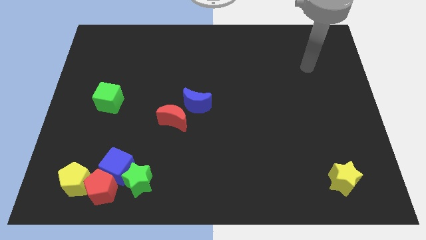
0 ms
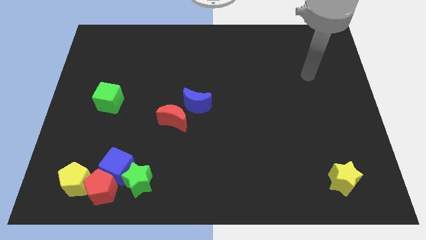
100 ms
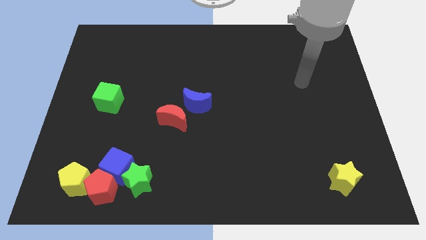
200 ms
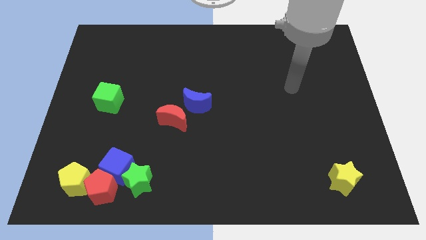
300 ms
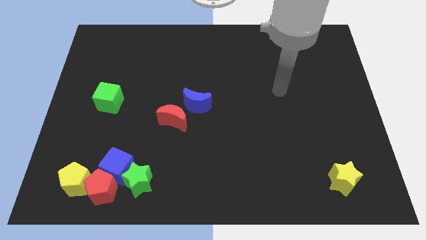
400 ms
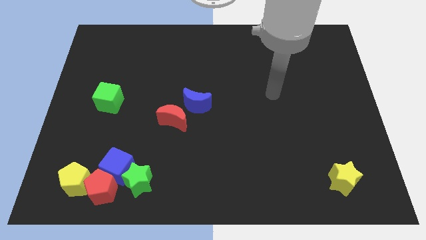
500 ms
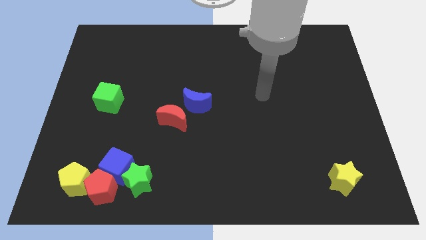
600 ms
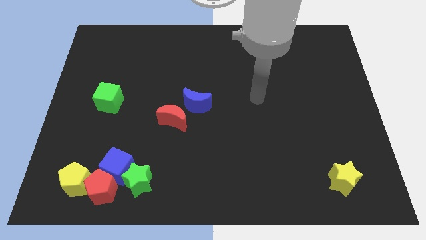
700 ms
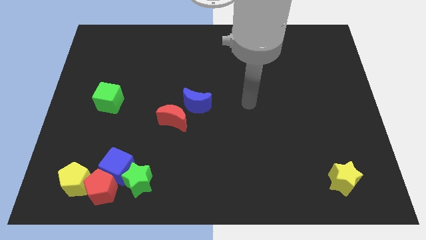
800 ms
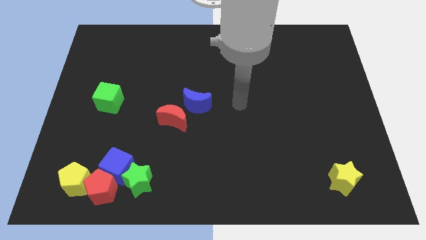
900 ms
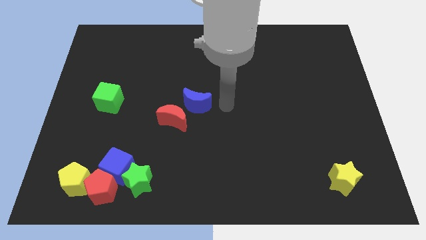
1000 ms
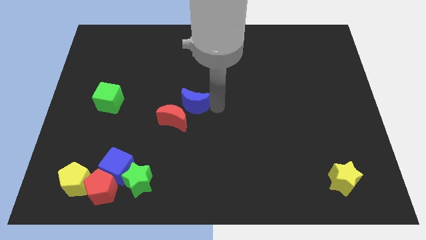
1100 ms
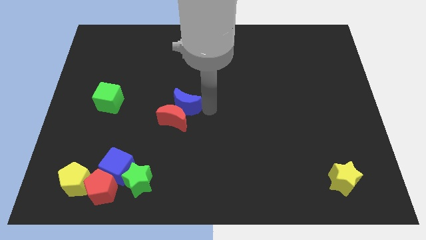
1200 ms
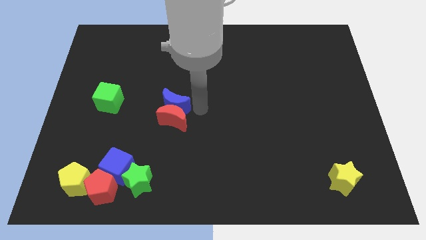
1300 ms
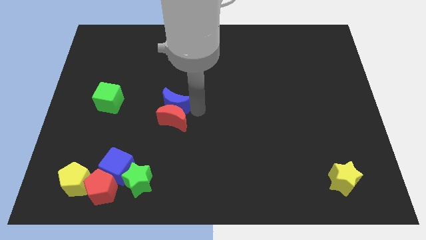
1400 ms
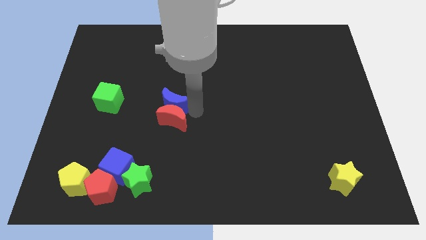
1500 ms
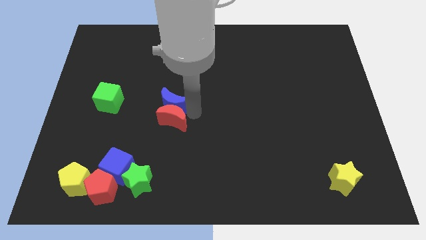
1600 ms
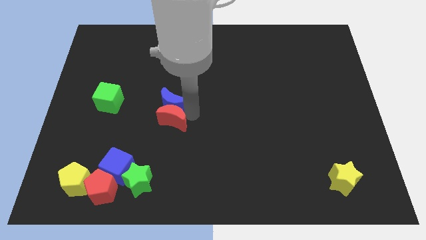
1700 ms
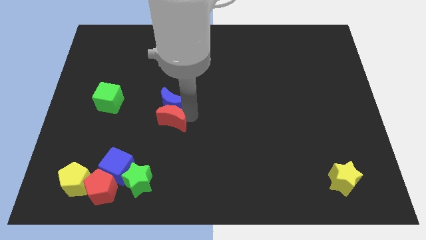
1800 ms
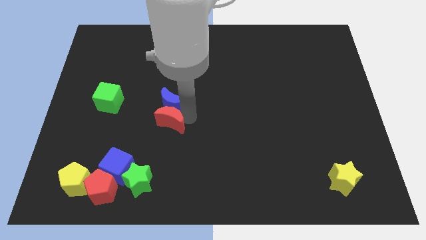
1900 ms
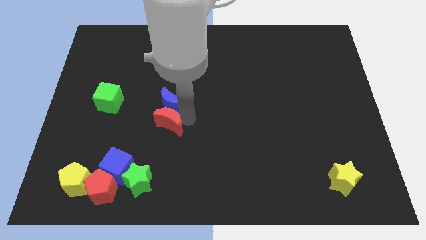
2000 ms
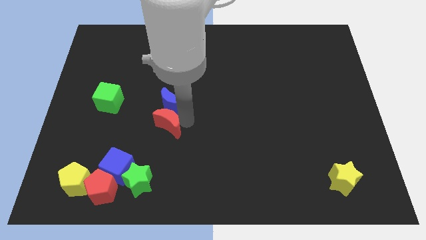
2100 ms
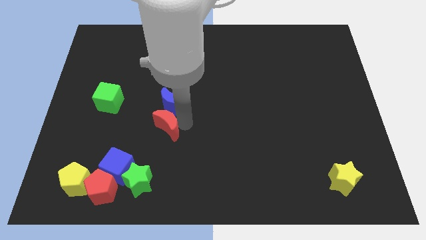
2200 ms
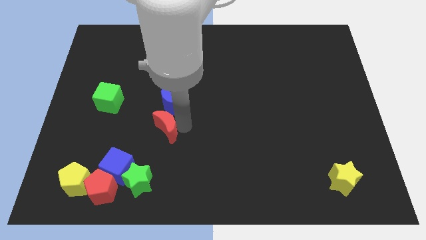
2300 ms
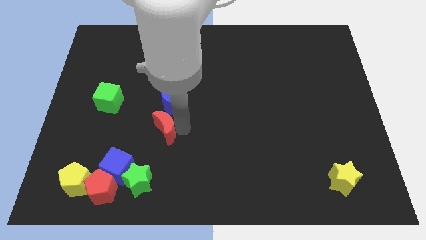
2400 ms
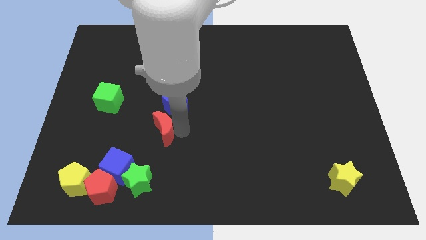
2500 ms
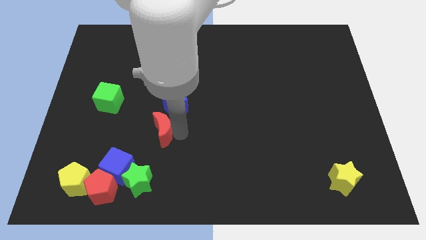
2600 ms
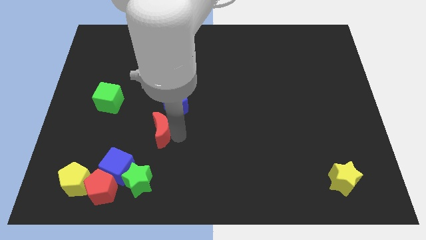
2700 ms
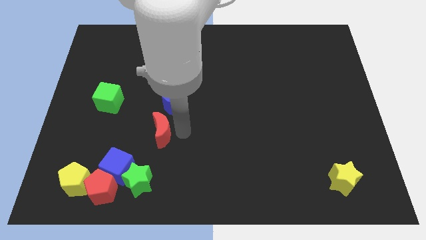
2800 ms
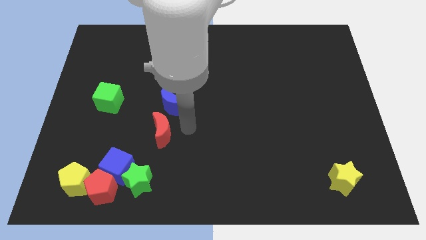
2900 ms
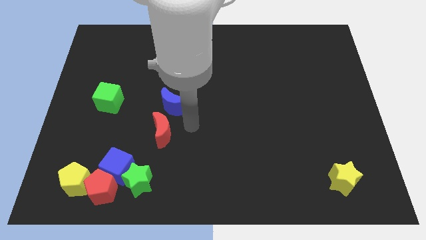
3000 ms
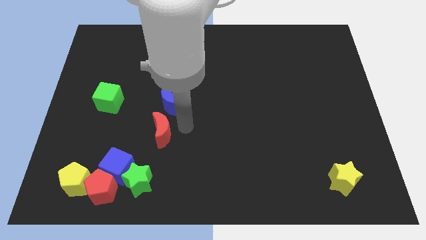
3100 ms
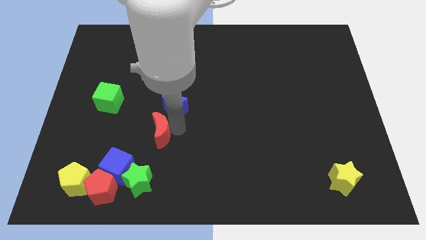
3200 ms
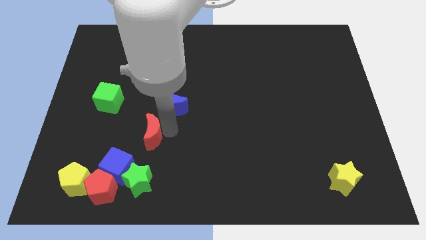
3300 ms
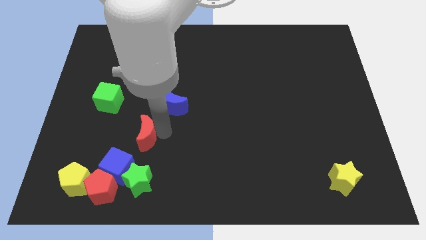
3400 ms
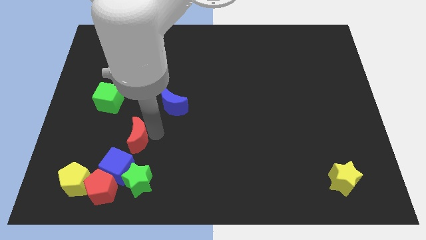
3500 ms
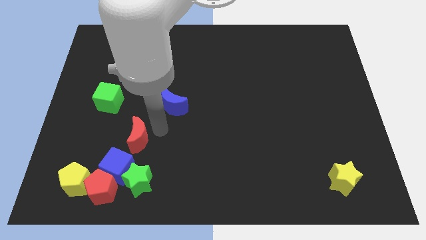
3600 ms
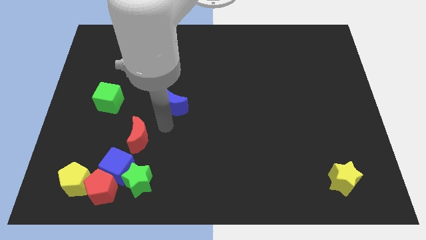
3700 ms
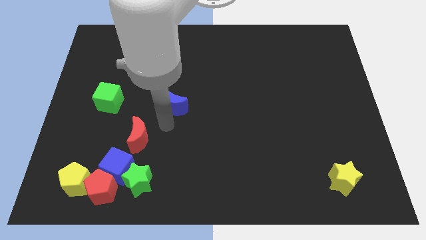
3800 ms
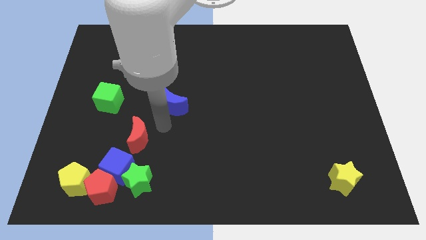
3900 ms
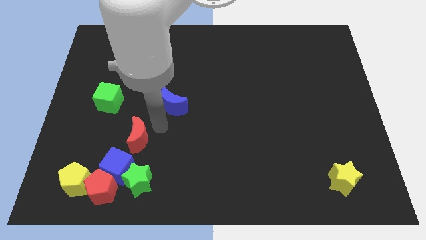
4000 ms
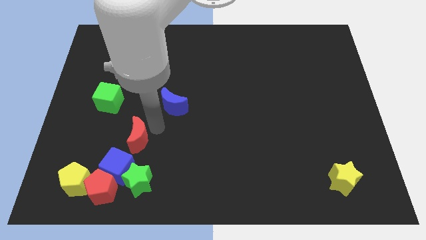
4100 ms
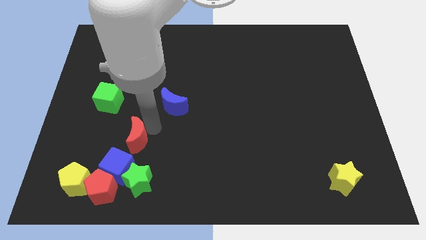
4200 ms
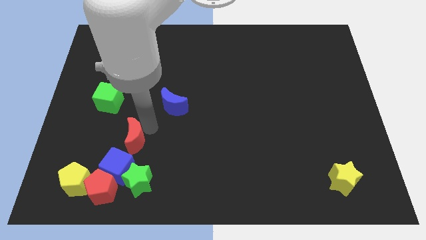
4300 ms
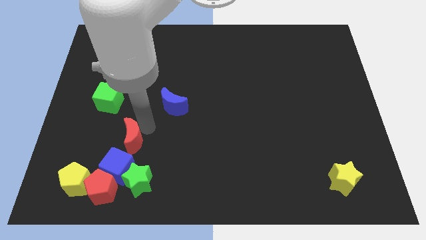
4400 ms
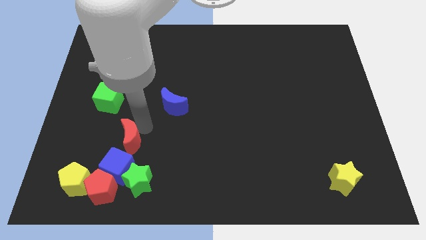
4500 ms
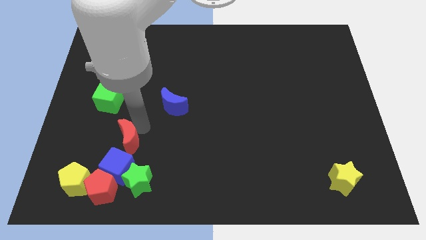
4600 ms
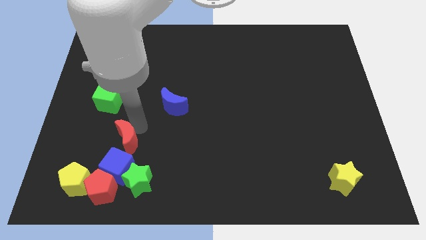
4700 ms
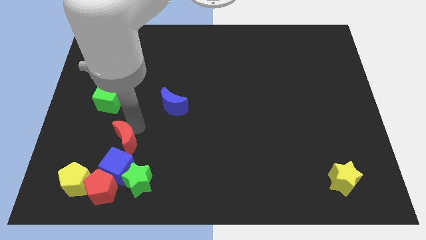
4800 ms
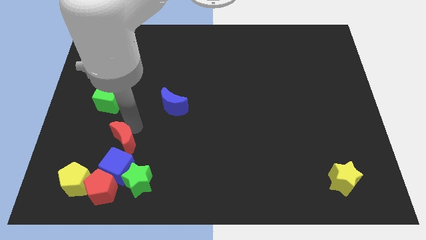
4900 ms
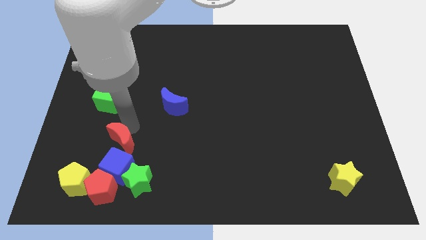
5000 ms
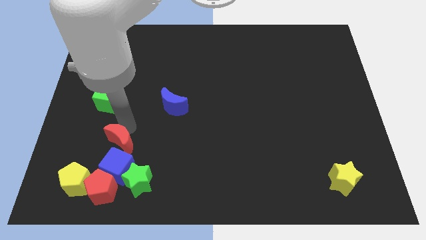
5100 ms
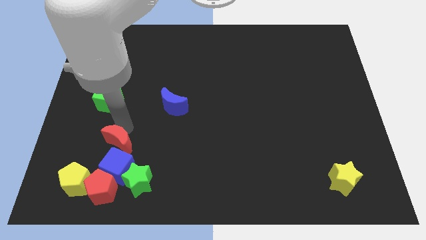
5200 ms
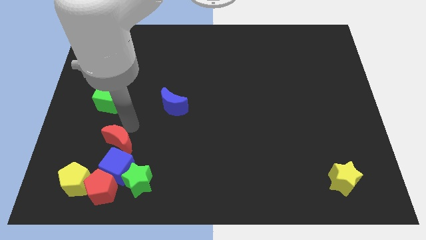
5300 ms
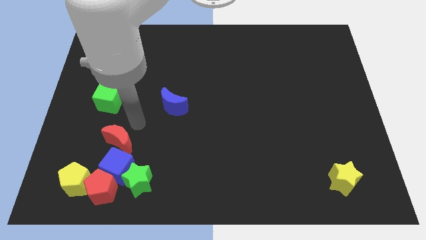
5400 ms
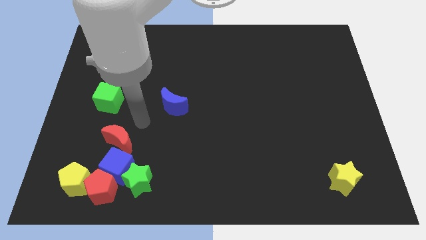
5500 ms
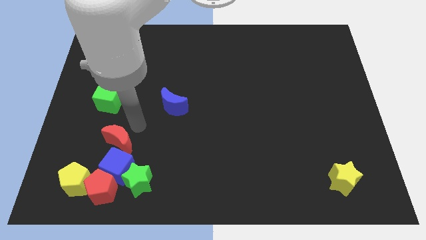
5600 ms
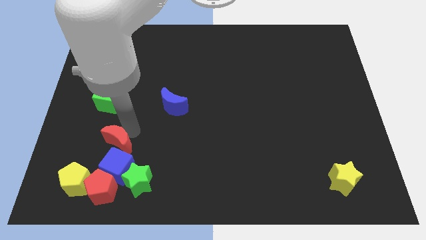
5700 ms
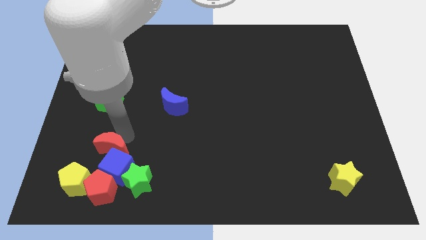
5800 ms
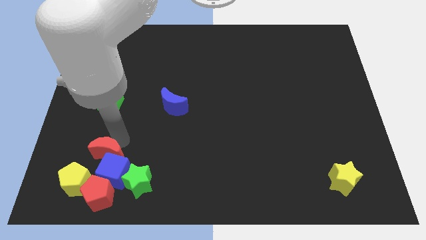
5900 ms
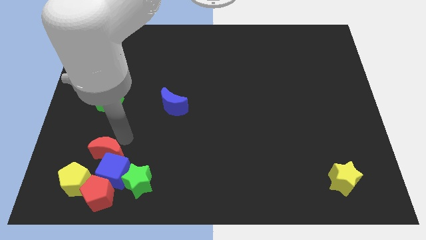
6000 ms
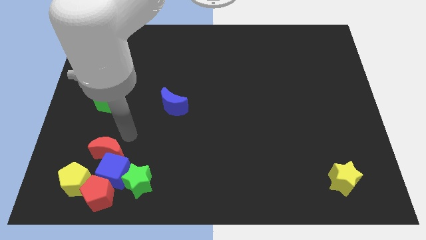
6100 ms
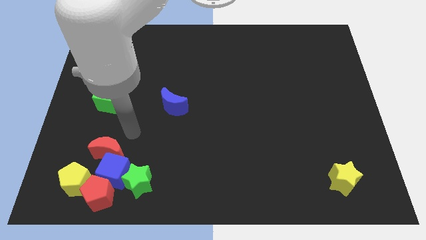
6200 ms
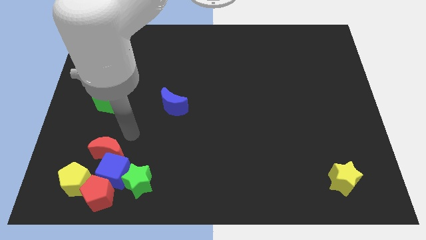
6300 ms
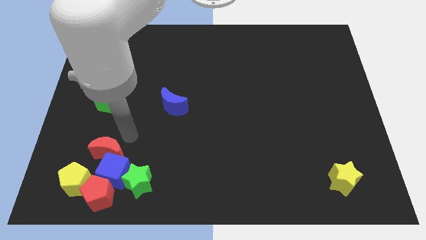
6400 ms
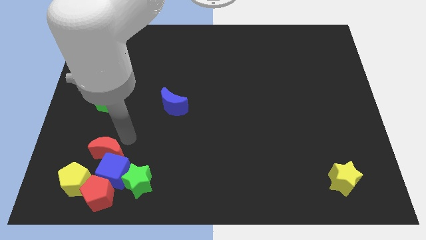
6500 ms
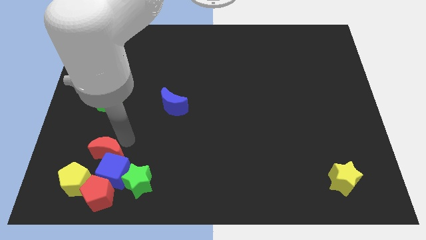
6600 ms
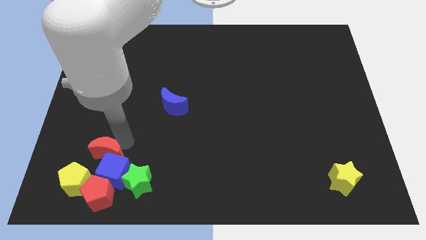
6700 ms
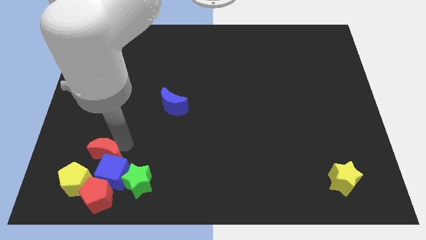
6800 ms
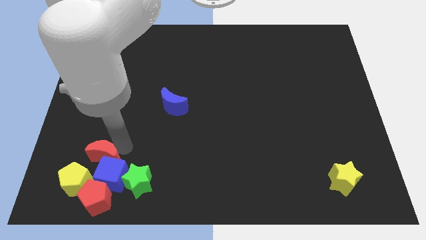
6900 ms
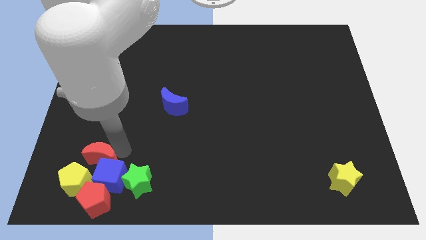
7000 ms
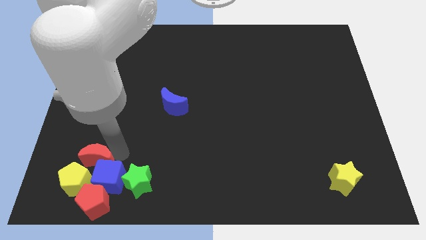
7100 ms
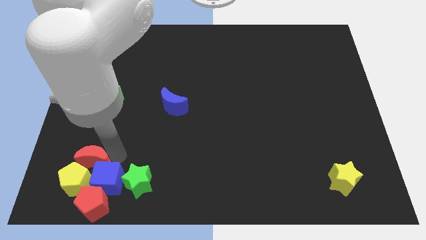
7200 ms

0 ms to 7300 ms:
push the red moon towards the yellow pentagon

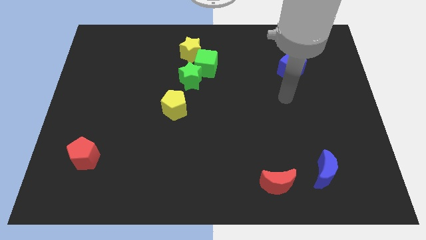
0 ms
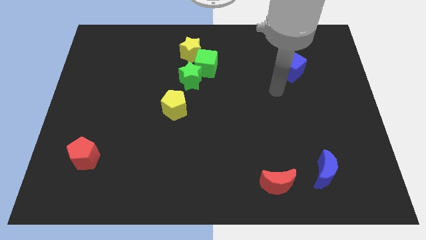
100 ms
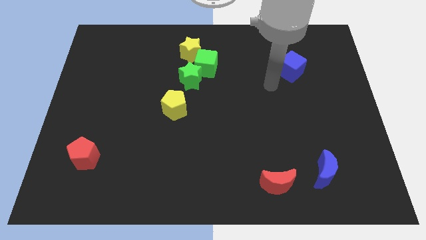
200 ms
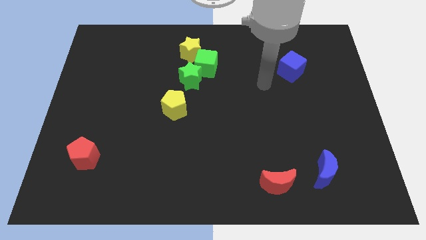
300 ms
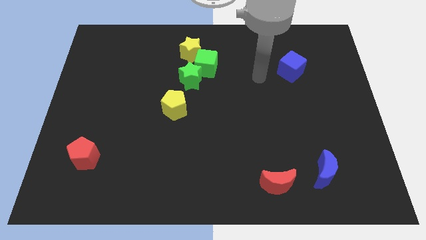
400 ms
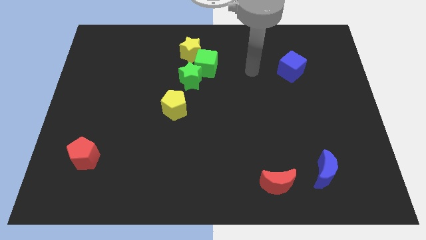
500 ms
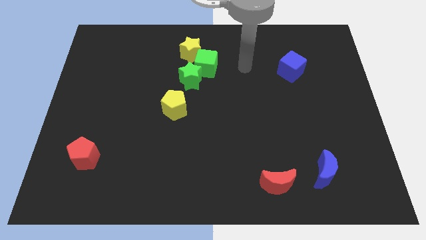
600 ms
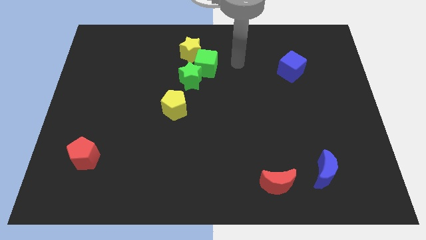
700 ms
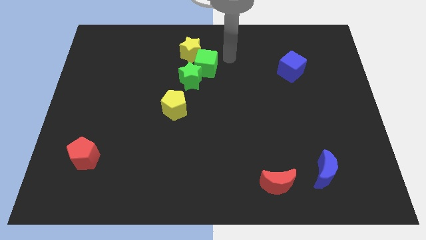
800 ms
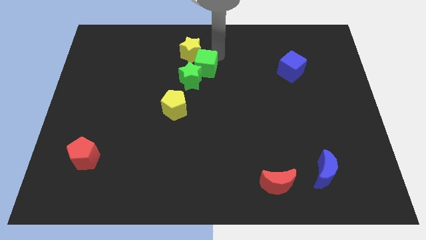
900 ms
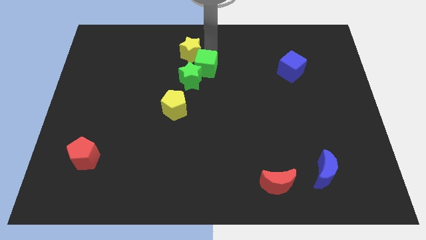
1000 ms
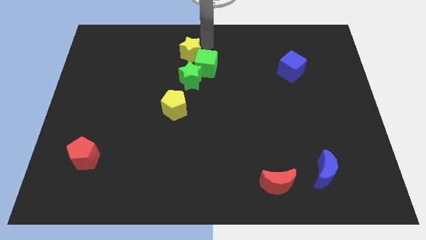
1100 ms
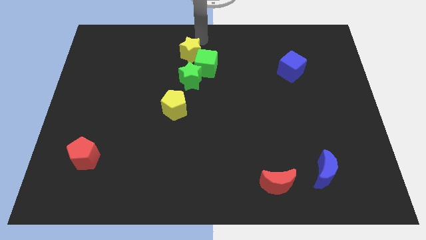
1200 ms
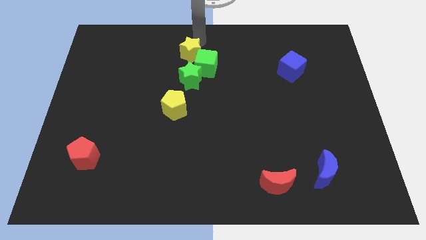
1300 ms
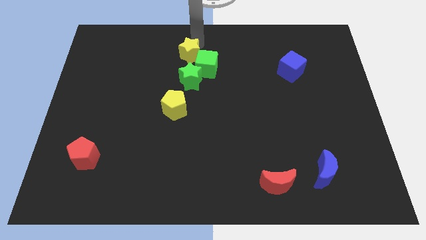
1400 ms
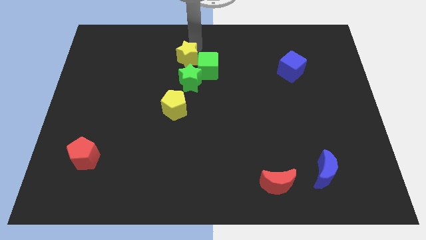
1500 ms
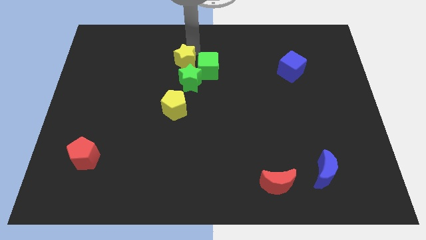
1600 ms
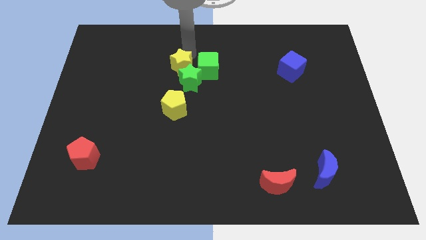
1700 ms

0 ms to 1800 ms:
move the yellow star close to the green star
